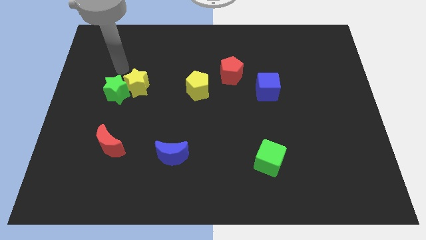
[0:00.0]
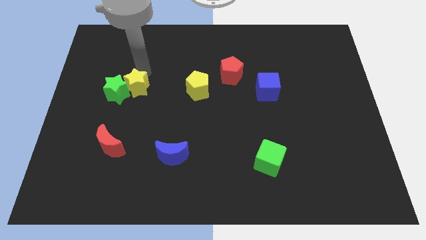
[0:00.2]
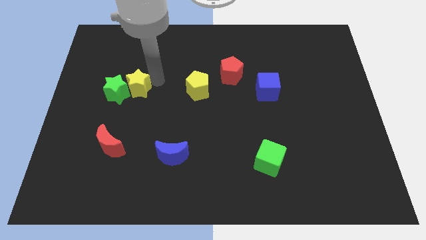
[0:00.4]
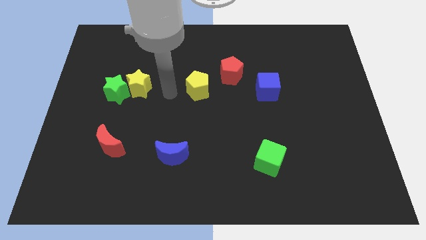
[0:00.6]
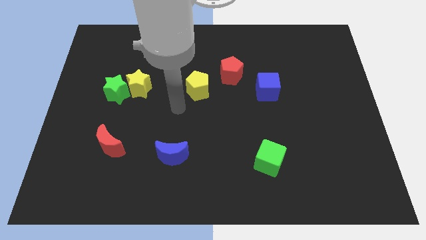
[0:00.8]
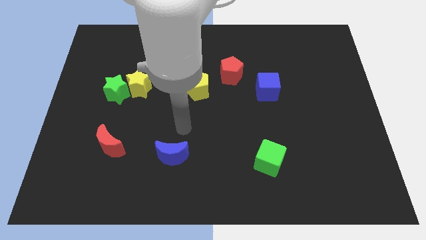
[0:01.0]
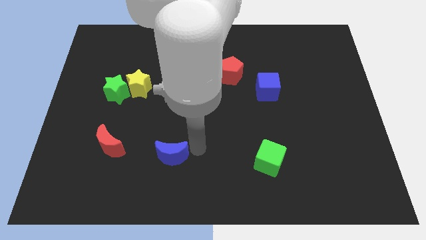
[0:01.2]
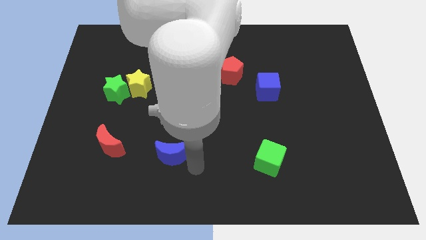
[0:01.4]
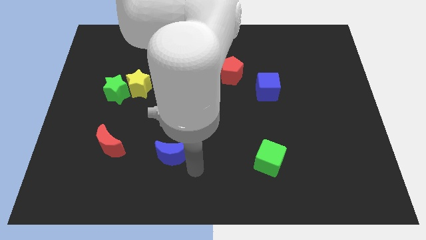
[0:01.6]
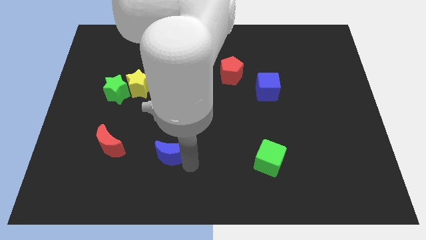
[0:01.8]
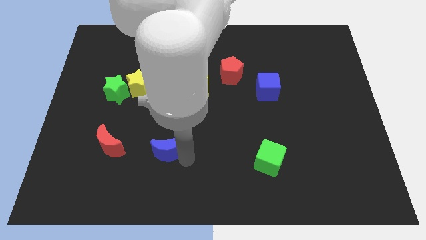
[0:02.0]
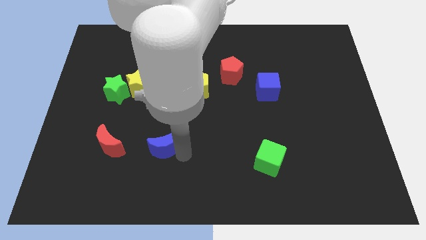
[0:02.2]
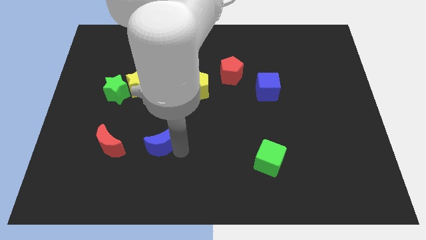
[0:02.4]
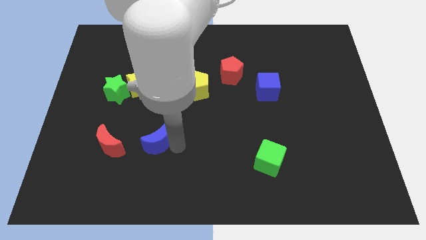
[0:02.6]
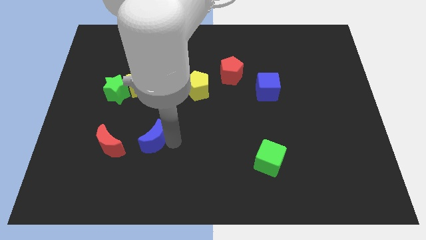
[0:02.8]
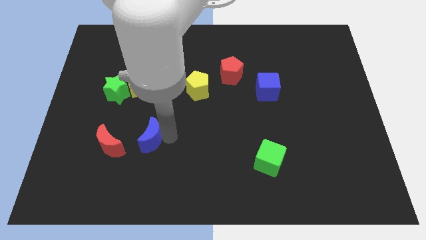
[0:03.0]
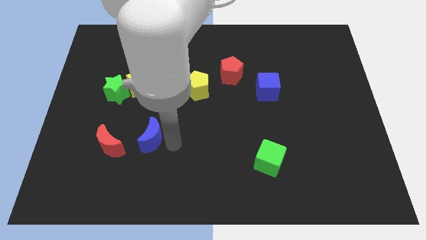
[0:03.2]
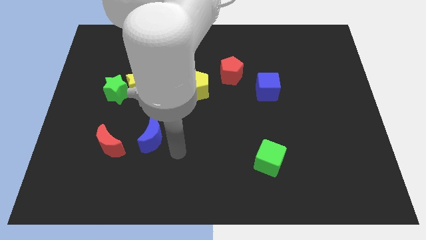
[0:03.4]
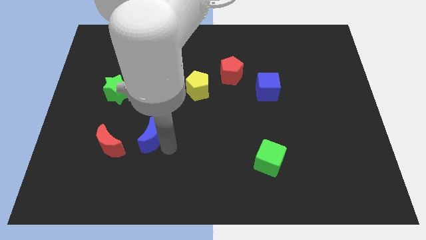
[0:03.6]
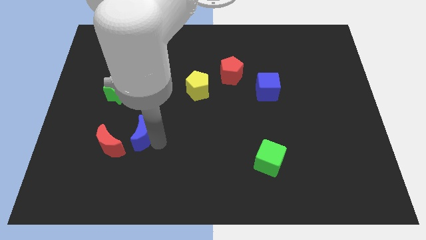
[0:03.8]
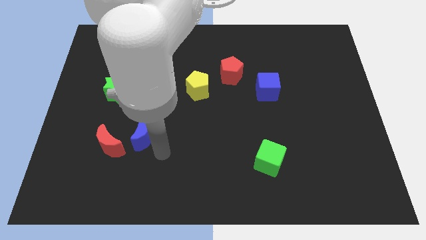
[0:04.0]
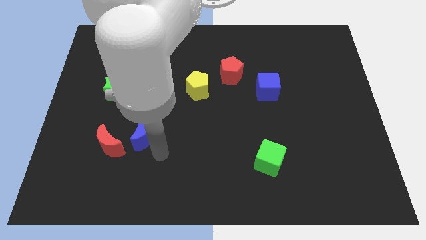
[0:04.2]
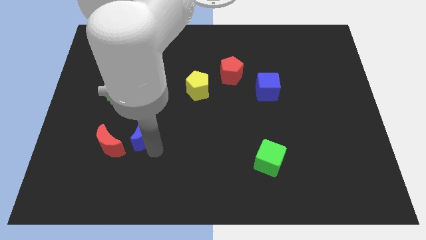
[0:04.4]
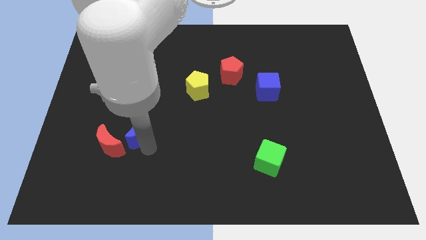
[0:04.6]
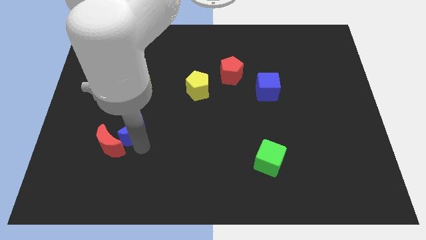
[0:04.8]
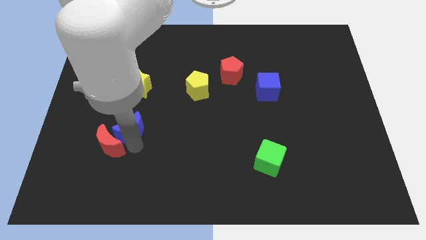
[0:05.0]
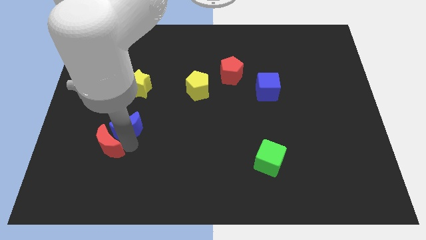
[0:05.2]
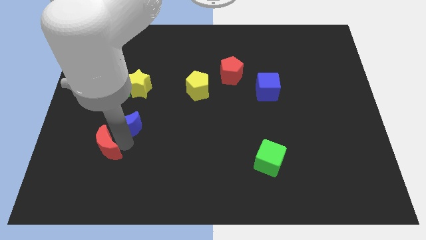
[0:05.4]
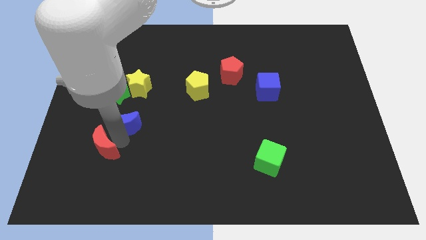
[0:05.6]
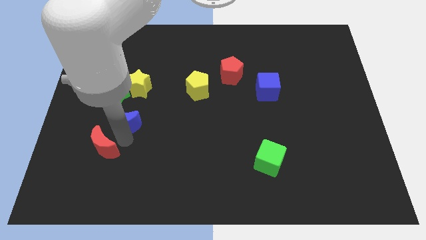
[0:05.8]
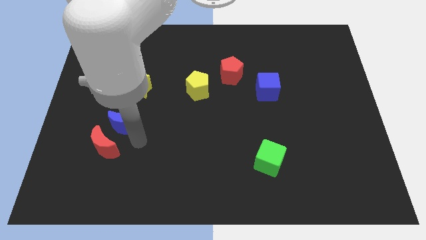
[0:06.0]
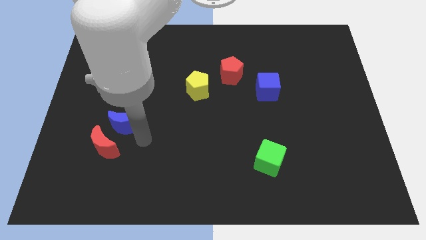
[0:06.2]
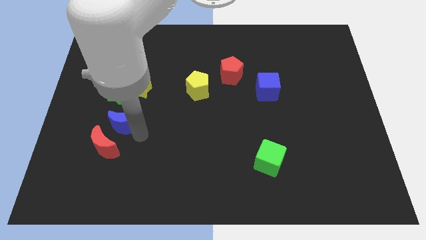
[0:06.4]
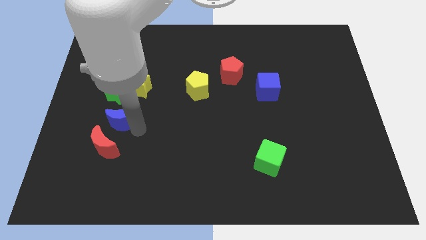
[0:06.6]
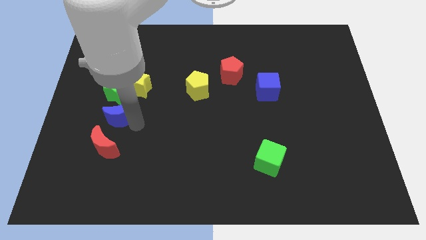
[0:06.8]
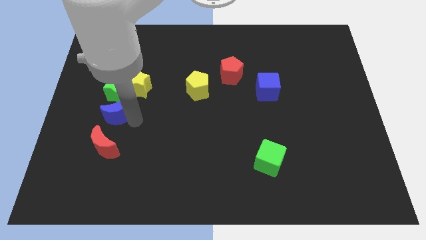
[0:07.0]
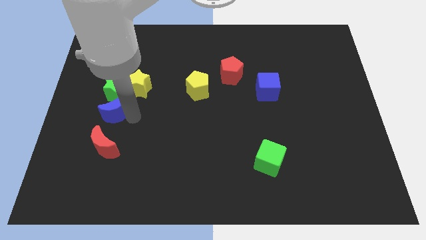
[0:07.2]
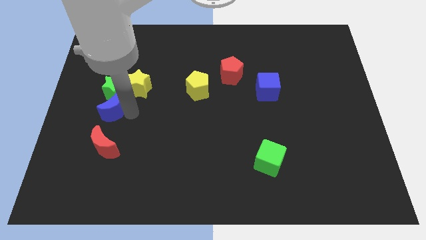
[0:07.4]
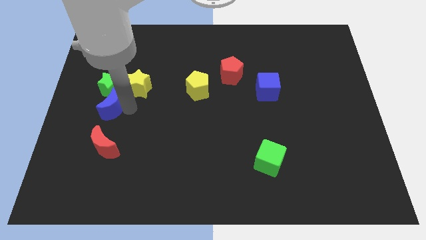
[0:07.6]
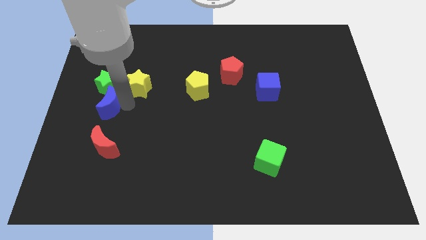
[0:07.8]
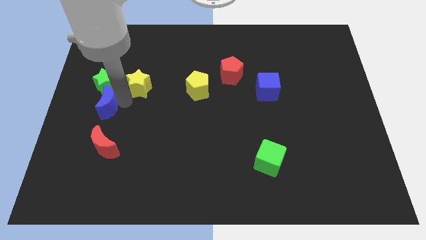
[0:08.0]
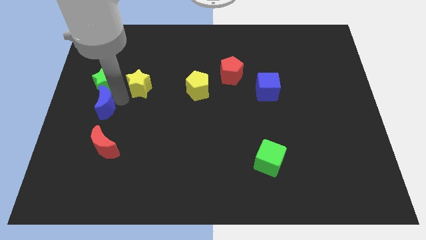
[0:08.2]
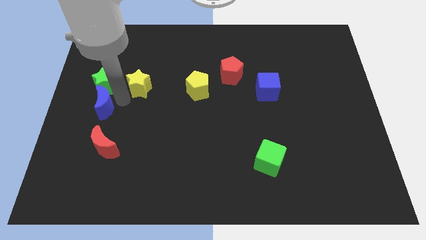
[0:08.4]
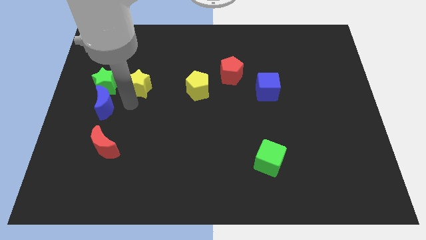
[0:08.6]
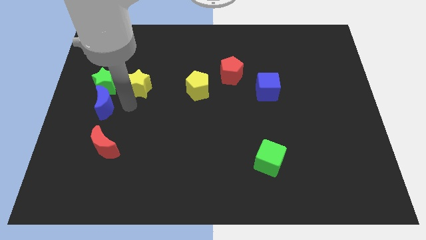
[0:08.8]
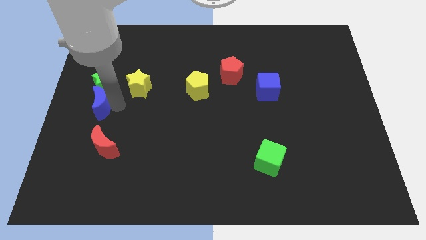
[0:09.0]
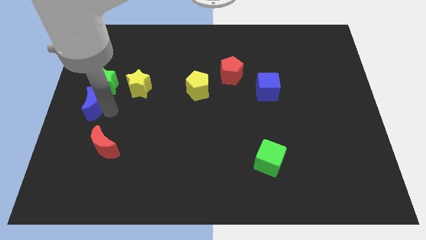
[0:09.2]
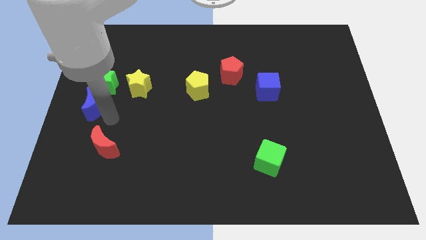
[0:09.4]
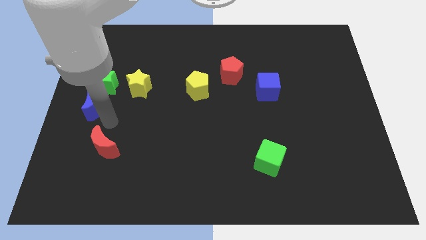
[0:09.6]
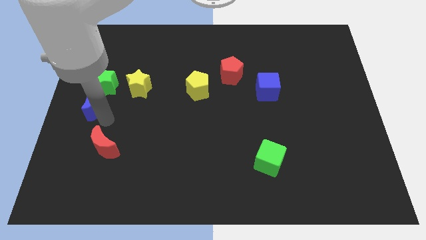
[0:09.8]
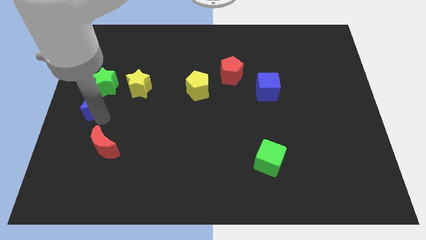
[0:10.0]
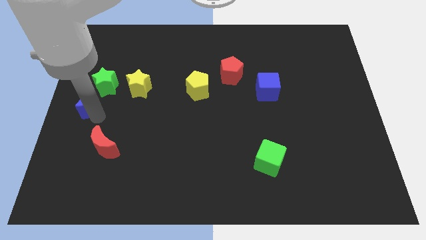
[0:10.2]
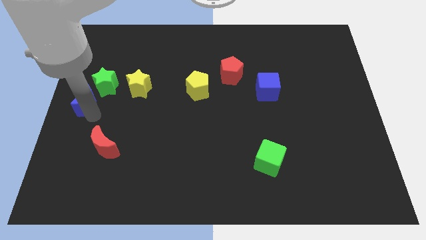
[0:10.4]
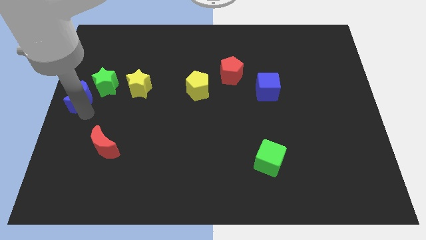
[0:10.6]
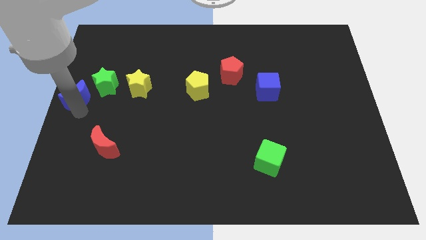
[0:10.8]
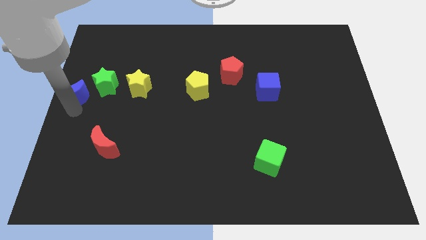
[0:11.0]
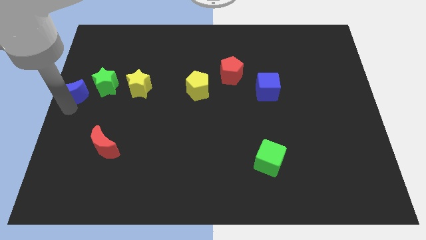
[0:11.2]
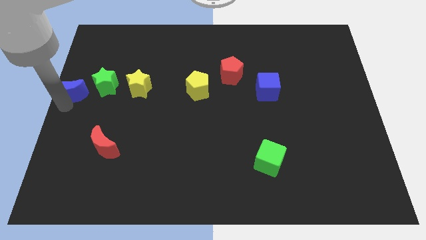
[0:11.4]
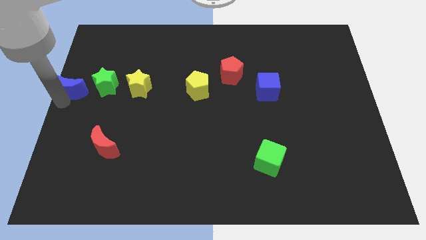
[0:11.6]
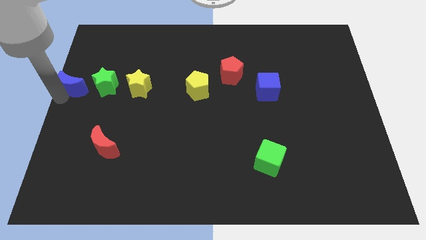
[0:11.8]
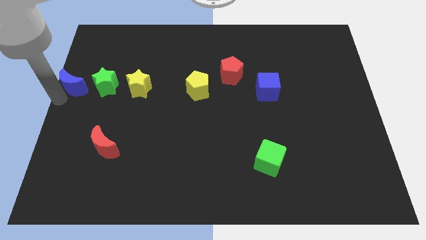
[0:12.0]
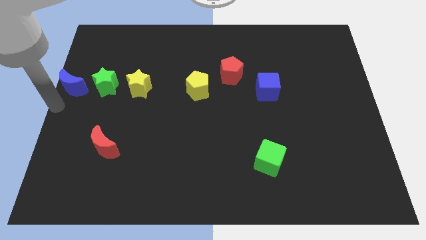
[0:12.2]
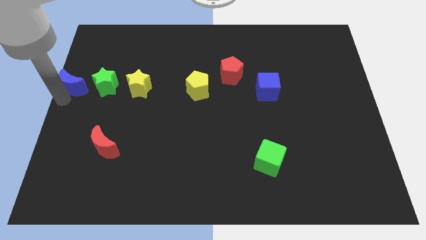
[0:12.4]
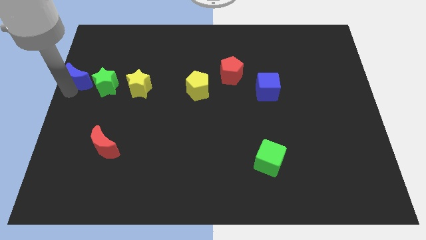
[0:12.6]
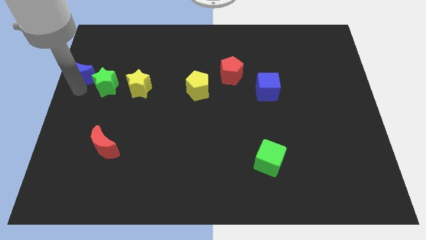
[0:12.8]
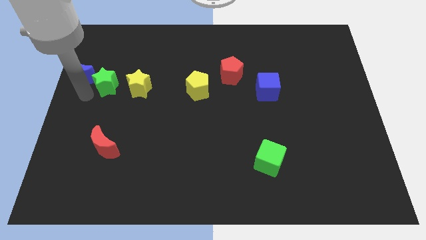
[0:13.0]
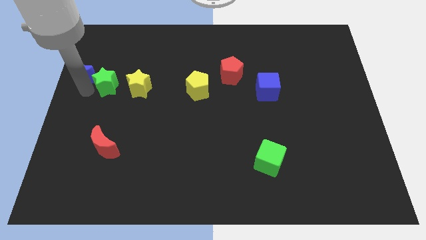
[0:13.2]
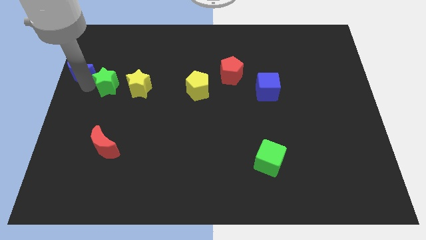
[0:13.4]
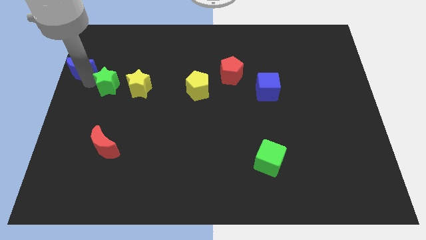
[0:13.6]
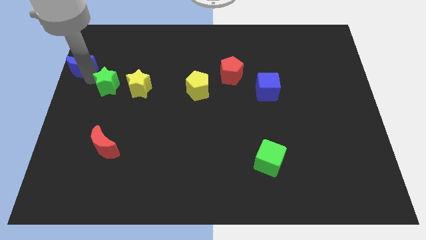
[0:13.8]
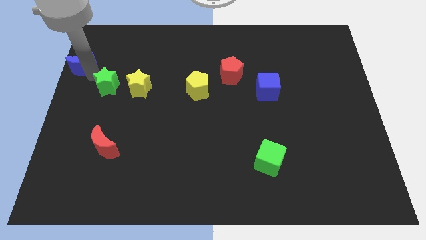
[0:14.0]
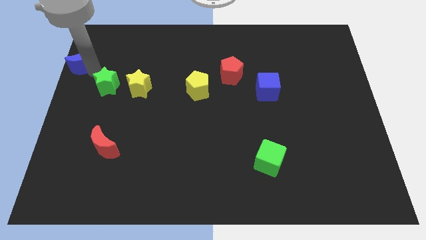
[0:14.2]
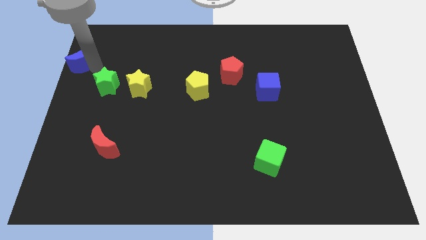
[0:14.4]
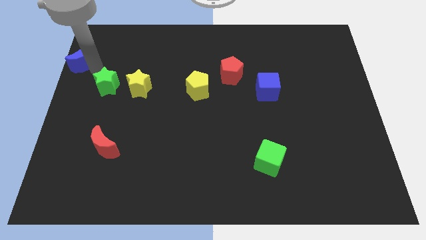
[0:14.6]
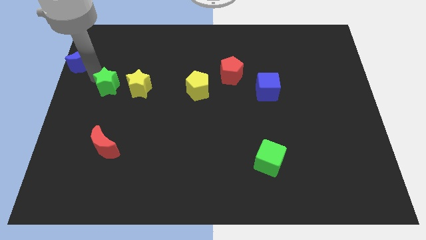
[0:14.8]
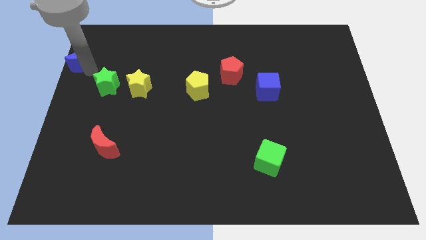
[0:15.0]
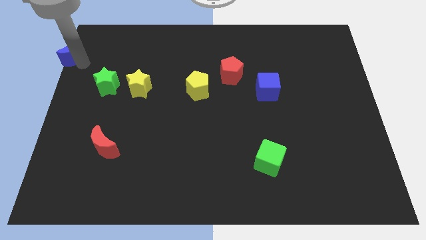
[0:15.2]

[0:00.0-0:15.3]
put the blue moon to the top left
